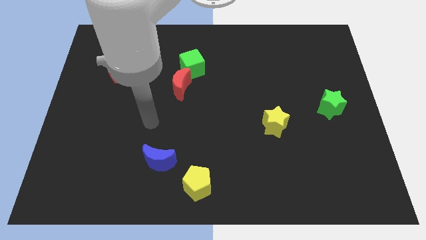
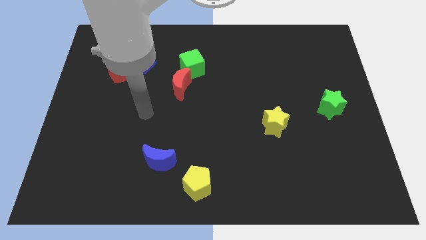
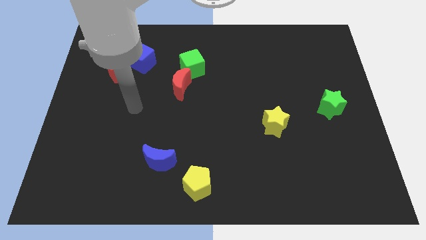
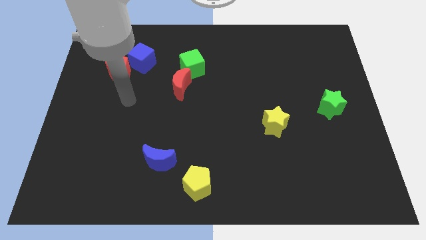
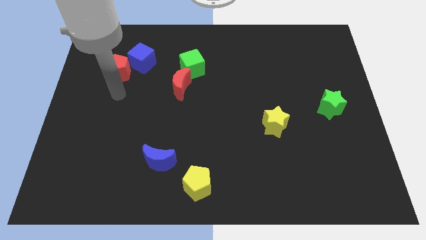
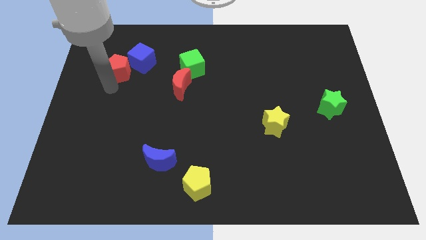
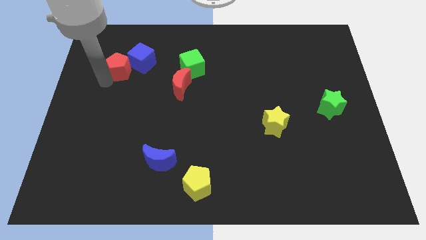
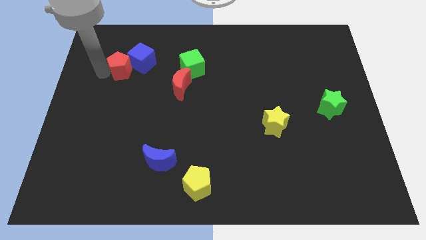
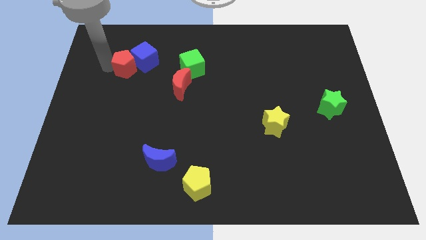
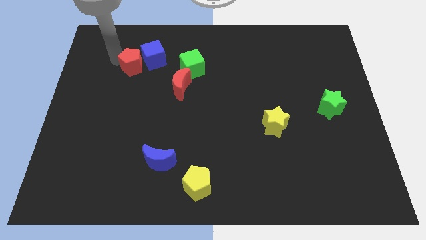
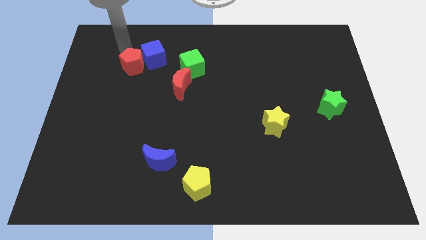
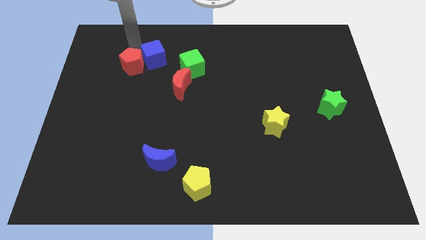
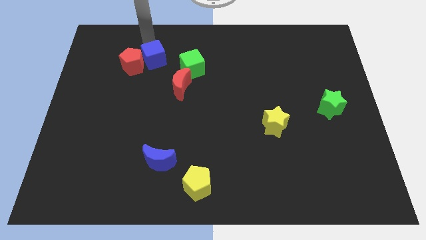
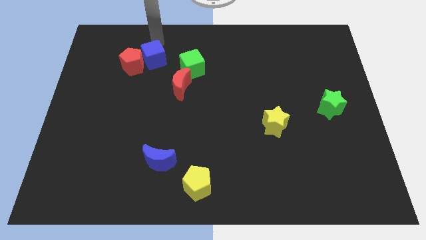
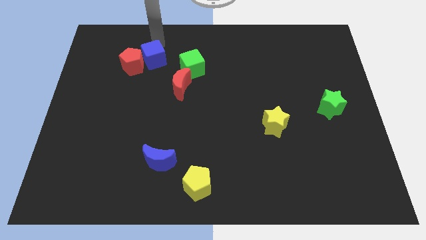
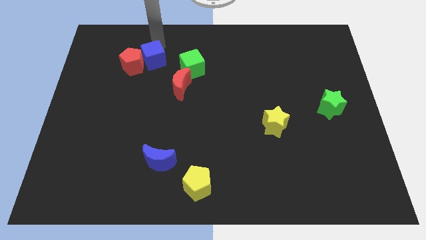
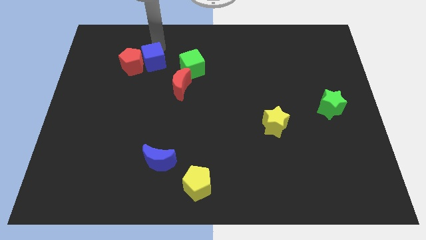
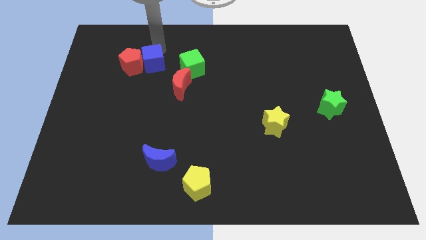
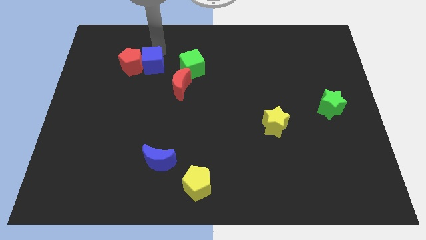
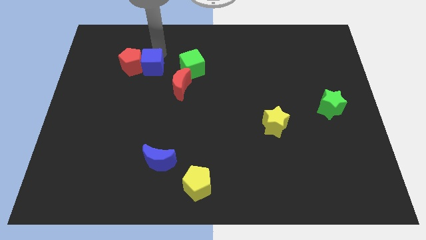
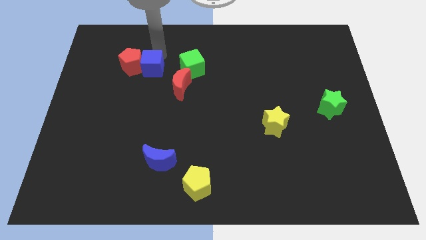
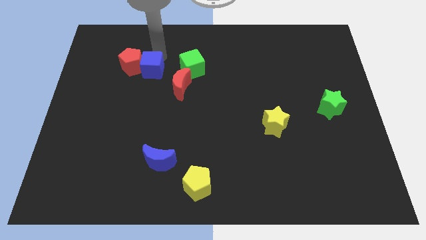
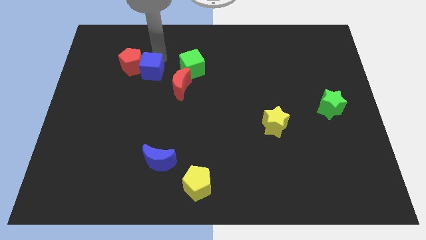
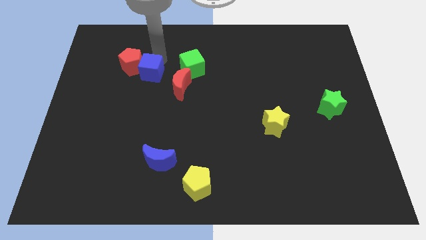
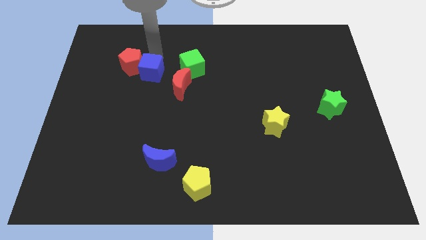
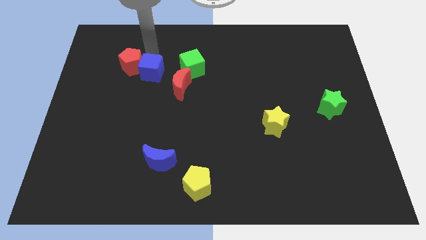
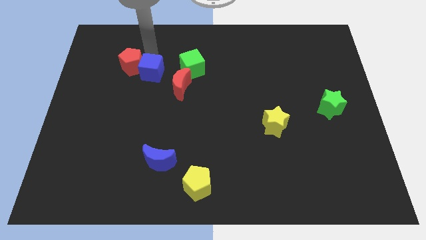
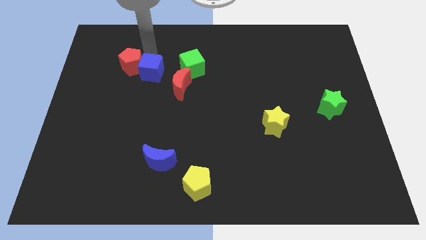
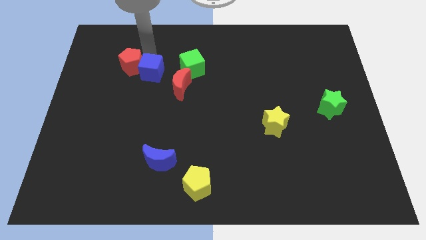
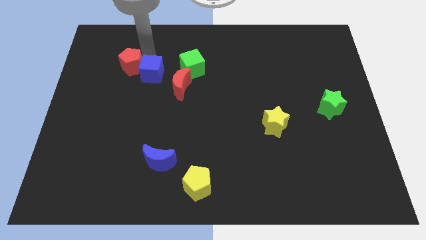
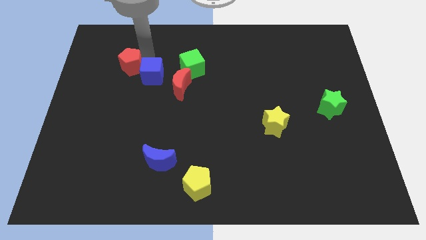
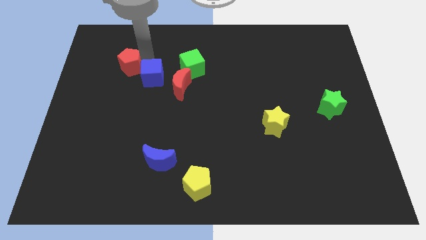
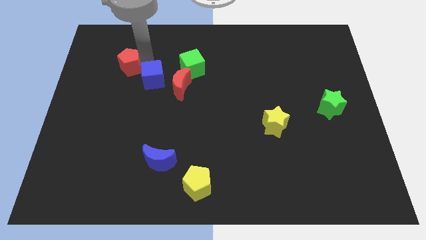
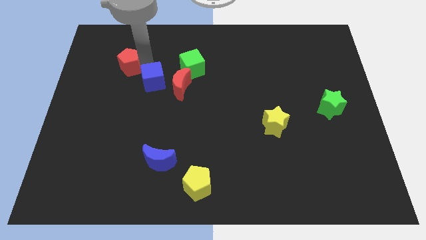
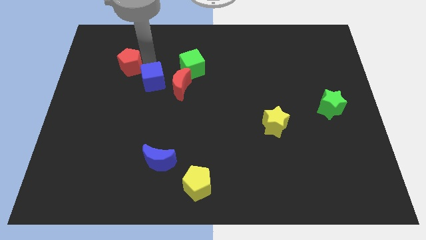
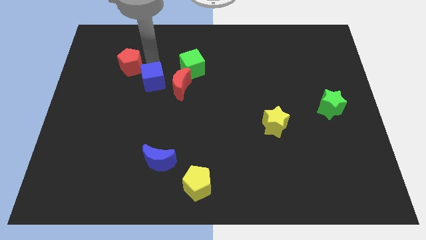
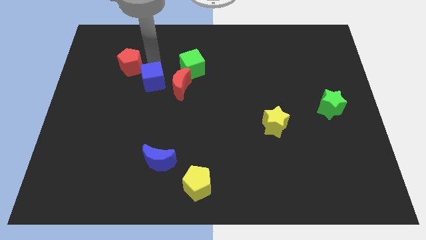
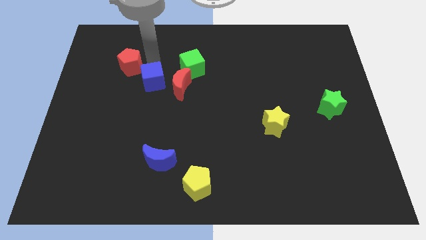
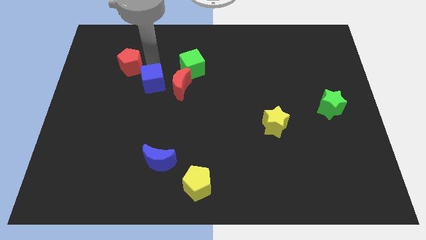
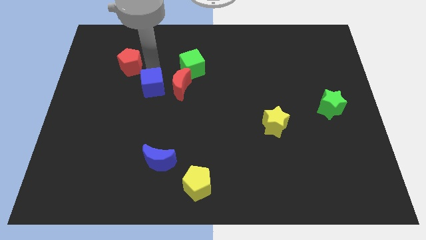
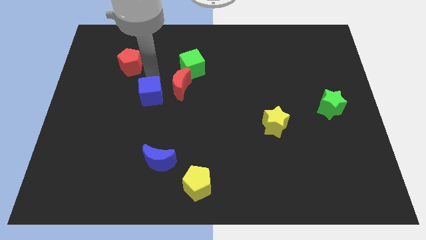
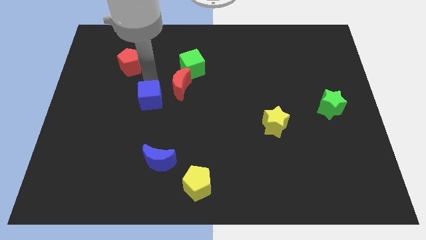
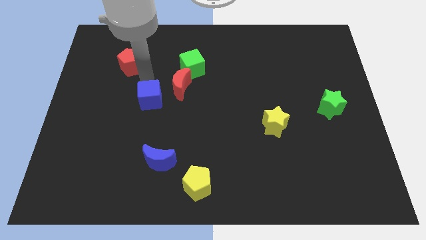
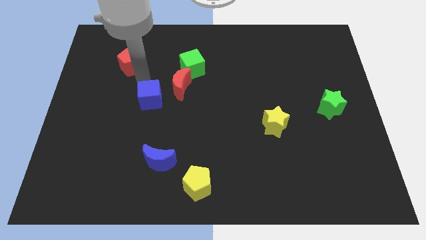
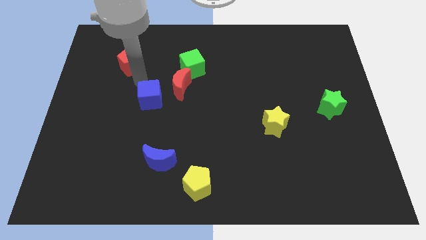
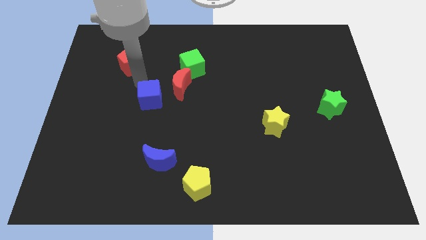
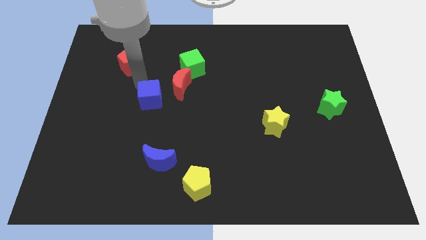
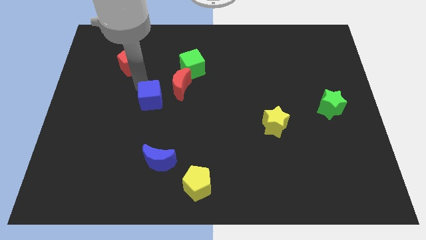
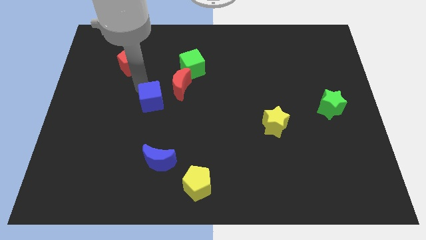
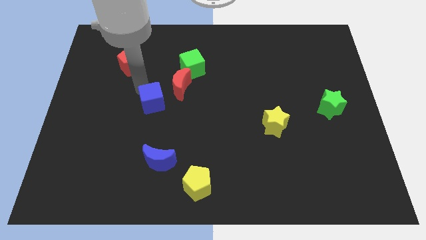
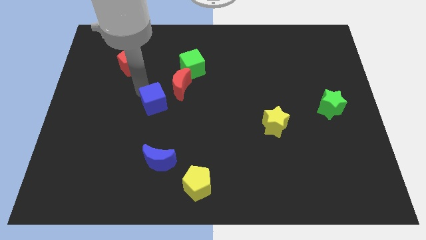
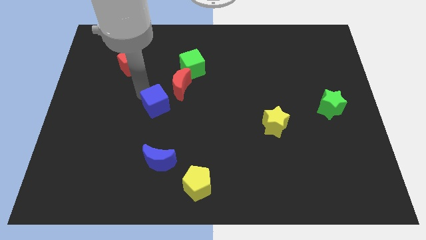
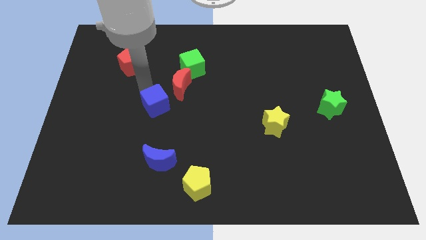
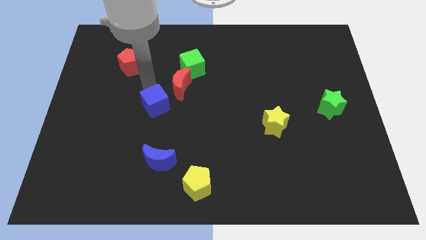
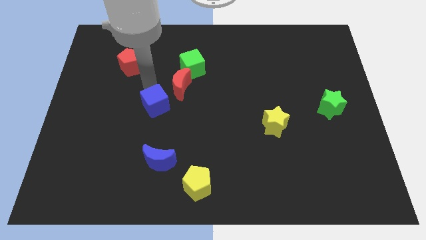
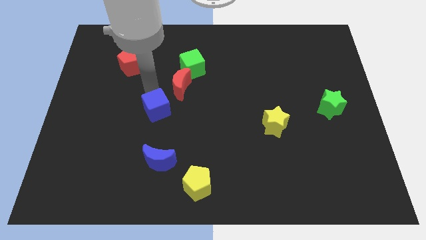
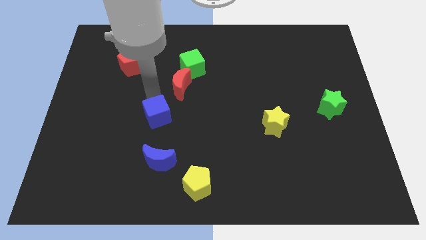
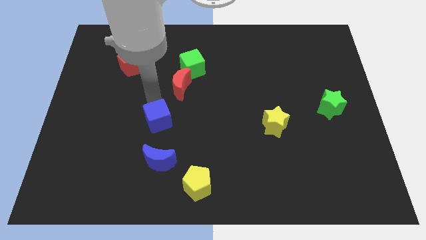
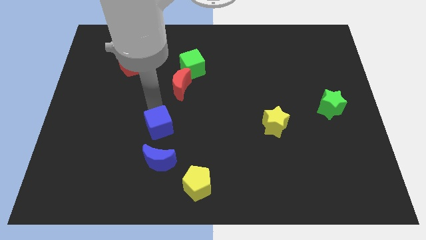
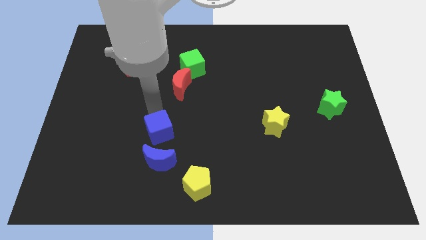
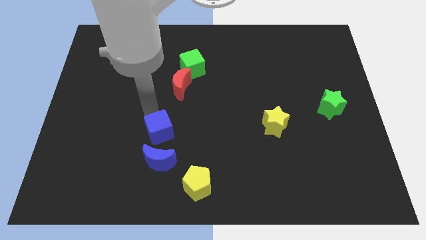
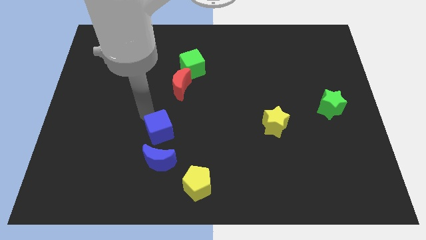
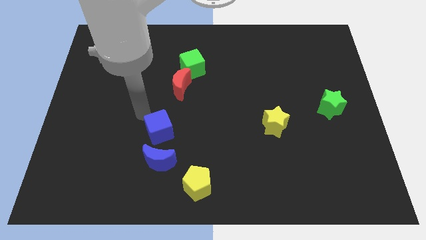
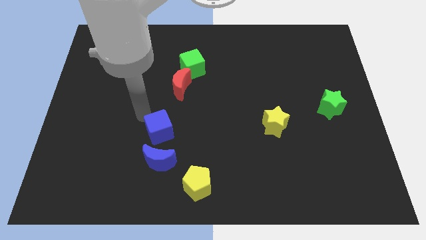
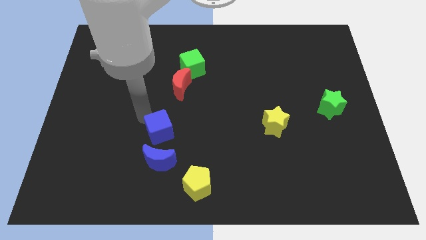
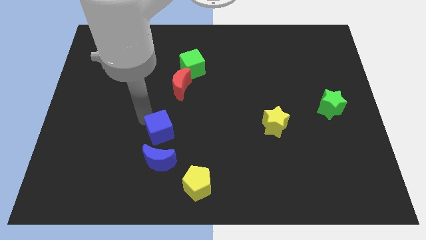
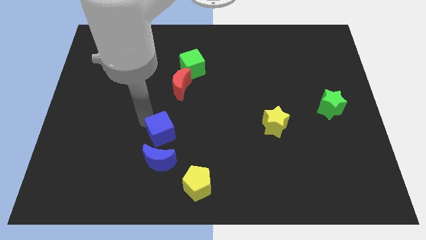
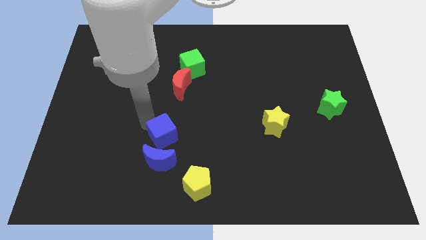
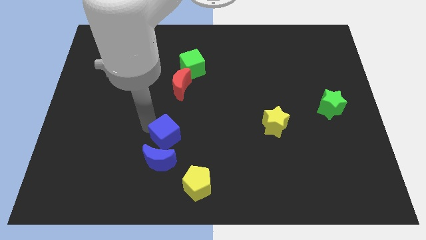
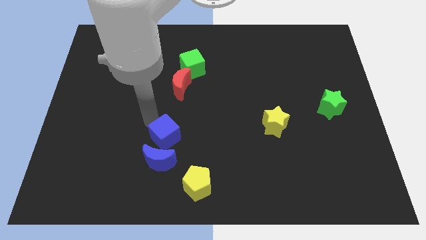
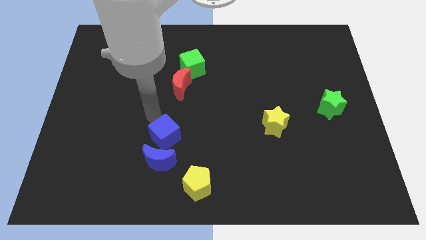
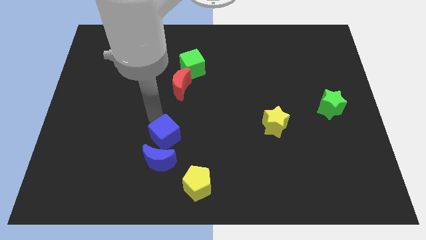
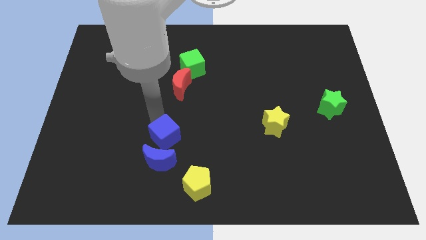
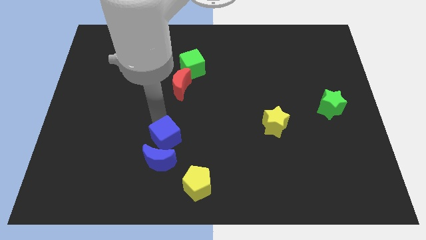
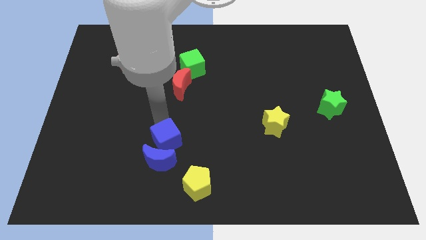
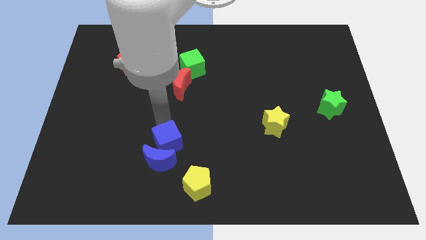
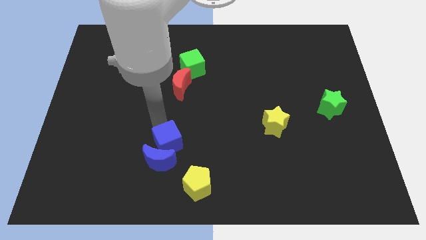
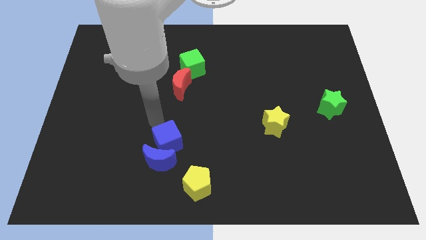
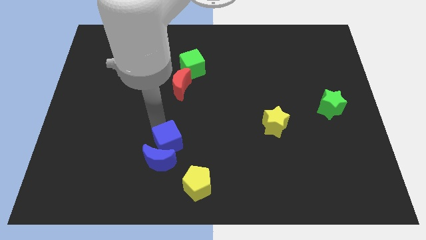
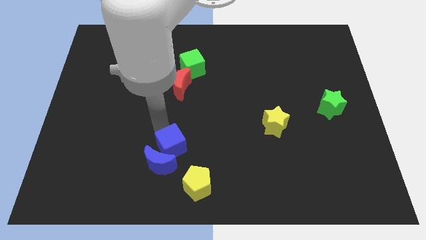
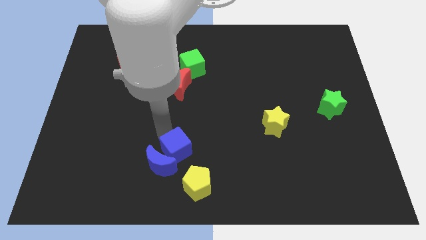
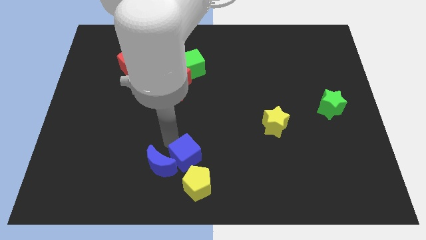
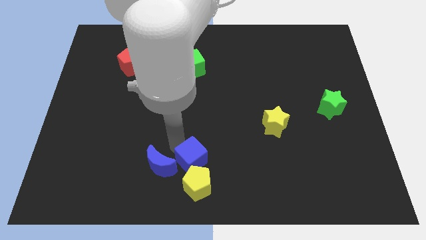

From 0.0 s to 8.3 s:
push the blue cube next to the yellow pentagon
